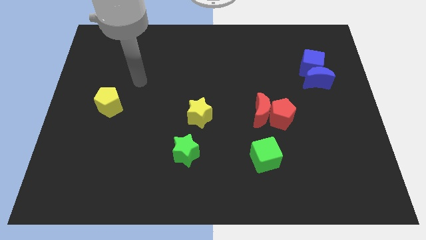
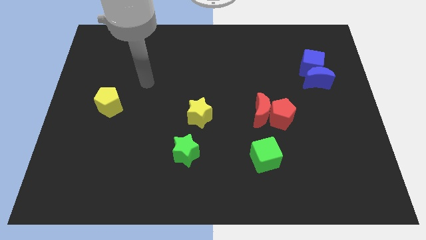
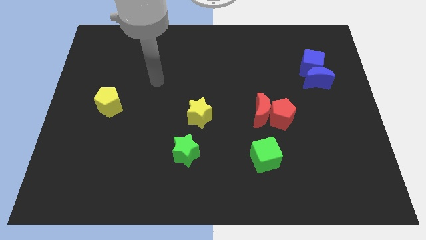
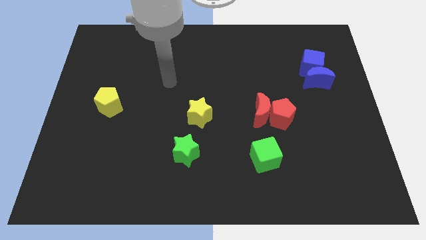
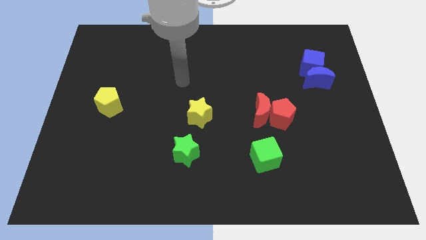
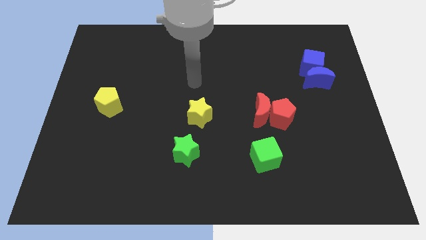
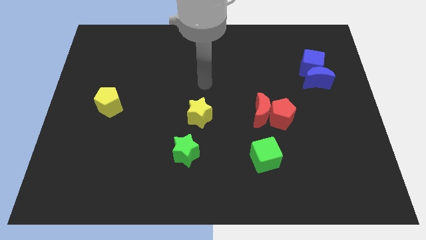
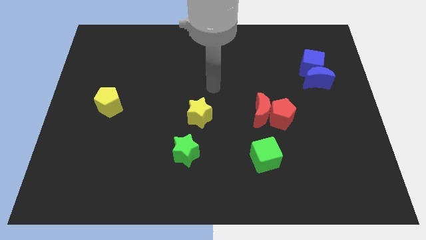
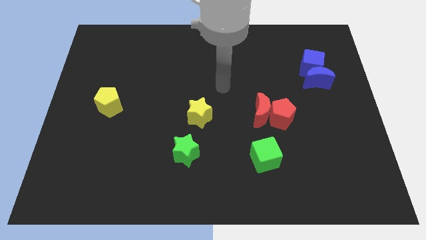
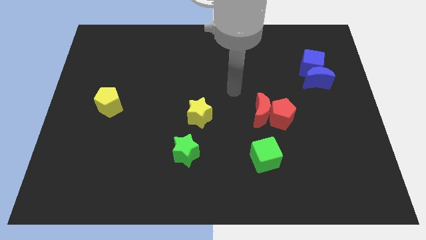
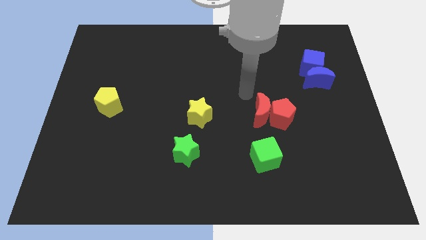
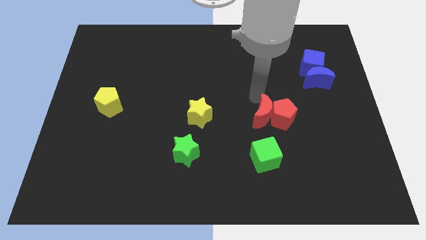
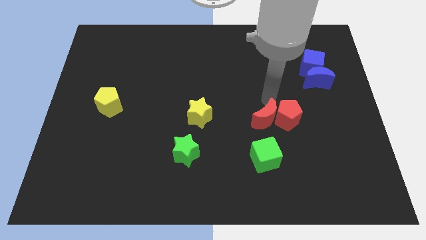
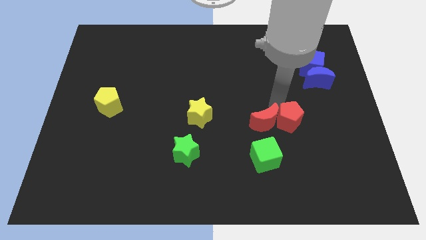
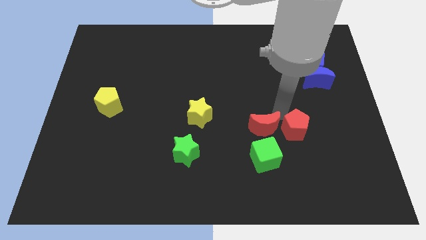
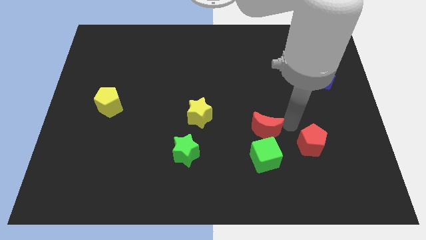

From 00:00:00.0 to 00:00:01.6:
separate the red moon from the red pentagon

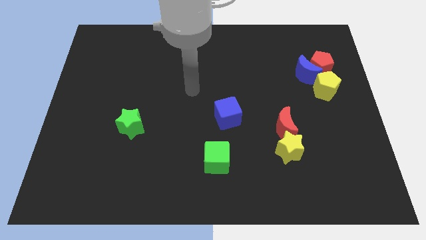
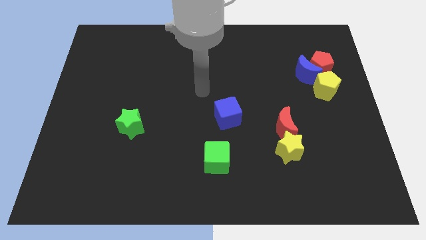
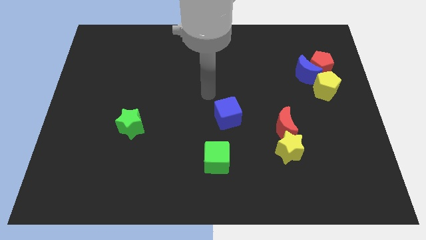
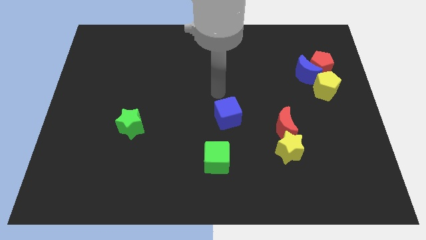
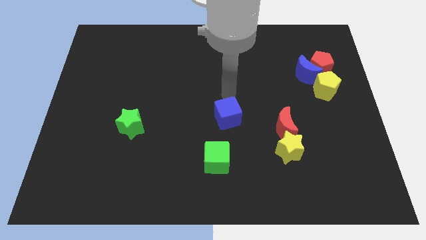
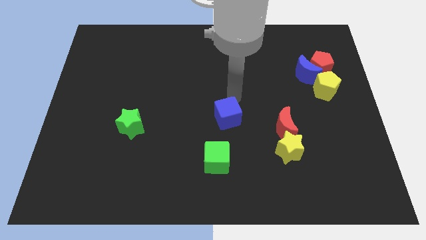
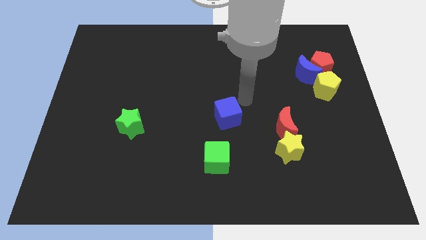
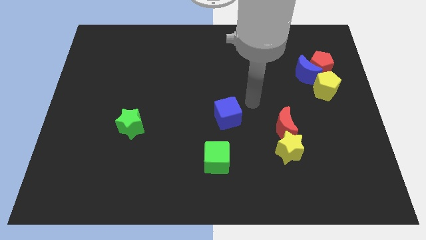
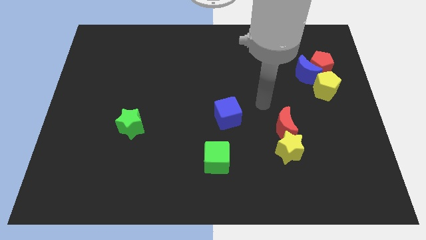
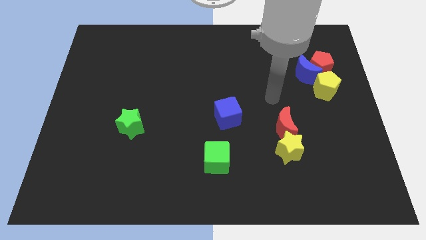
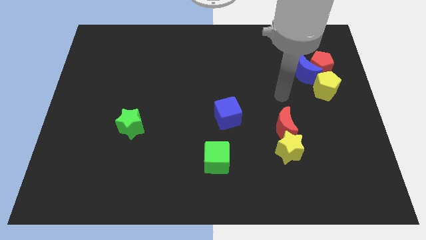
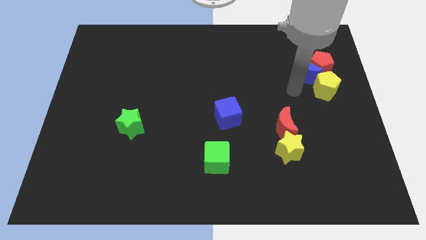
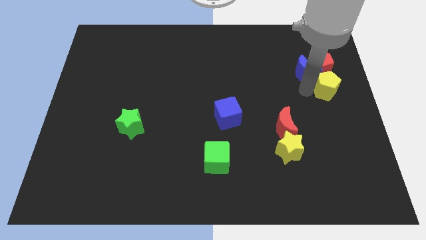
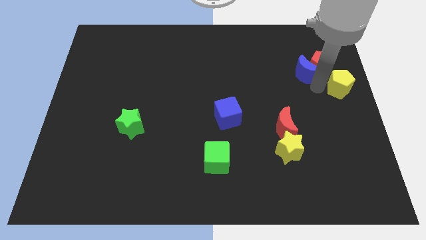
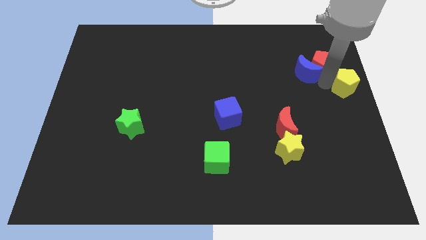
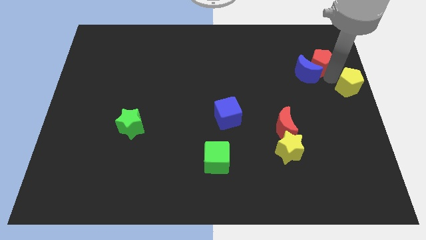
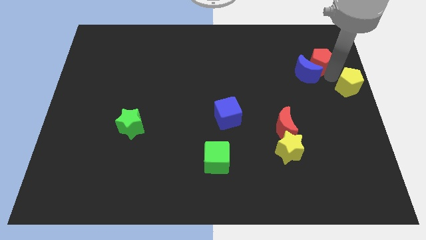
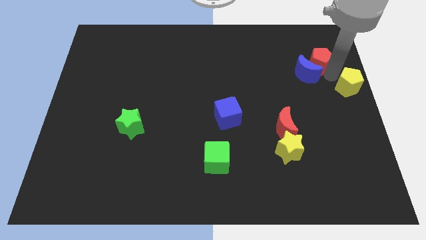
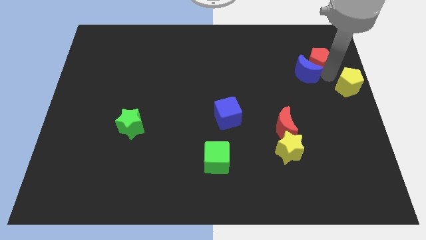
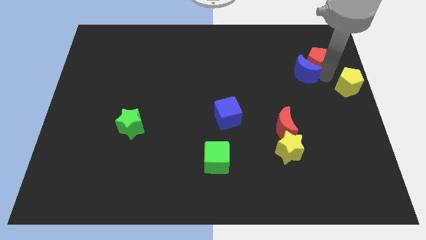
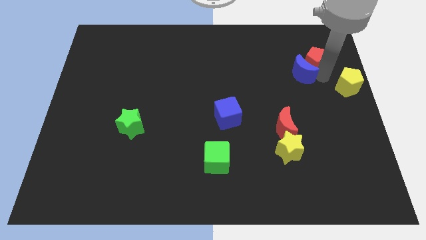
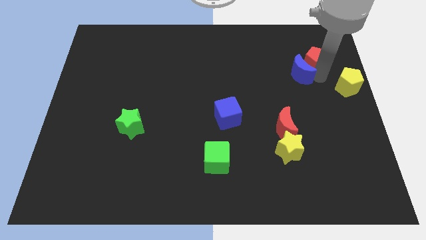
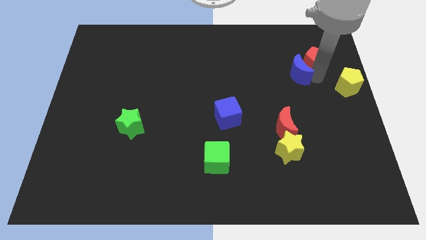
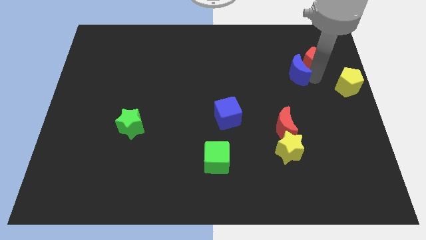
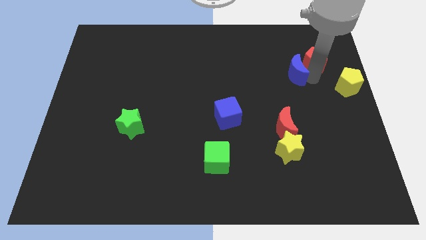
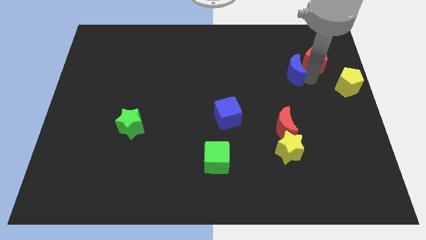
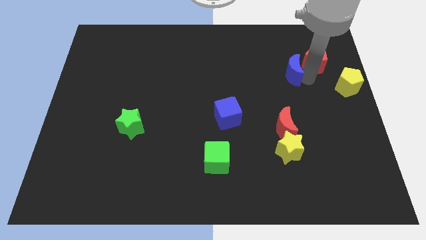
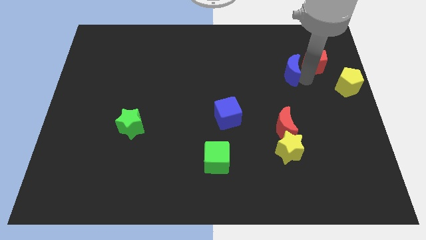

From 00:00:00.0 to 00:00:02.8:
move the blue moon away from the red pentagon and yellow pentagon

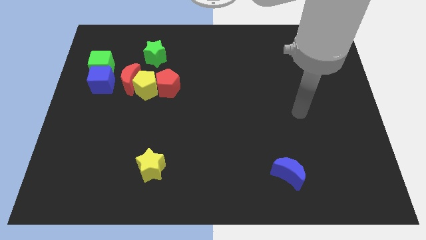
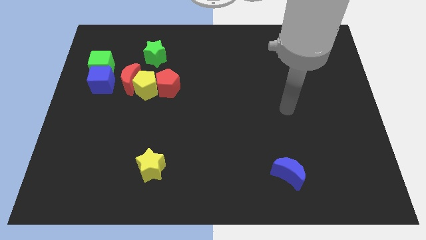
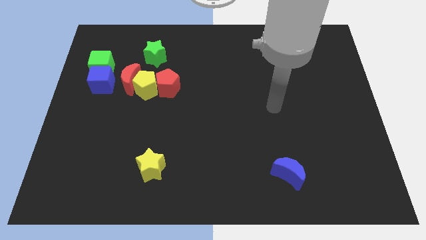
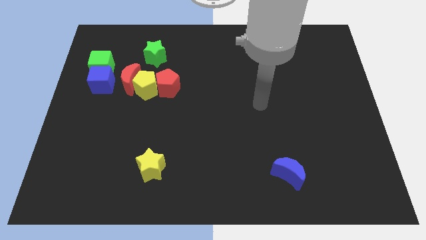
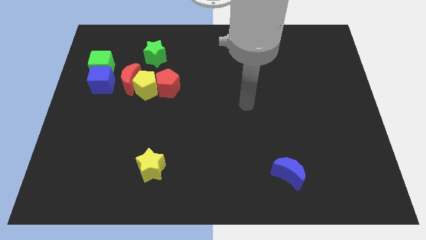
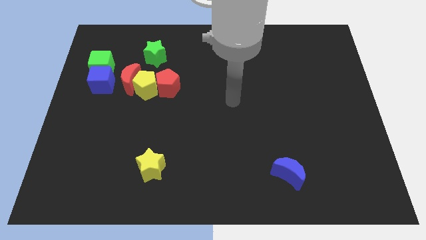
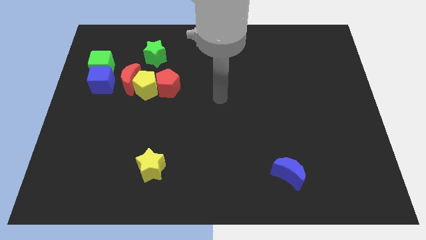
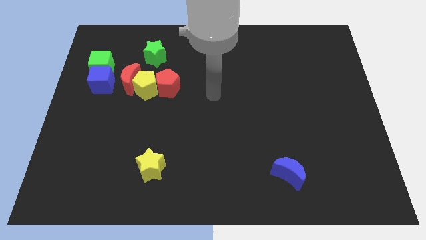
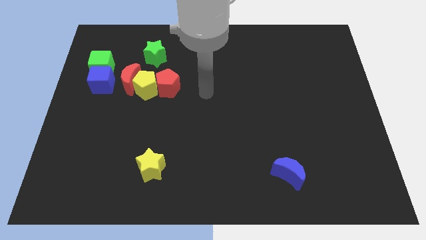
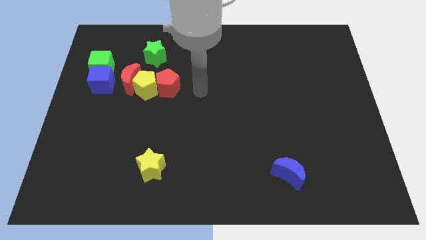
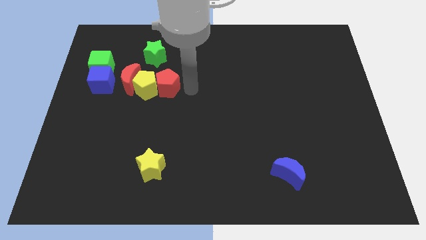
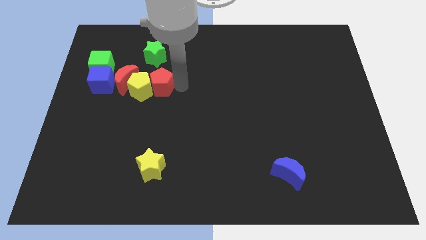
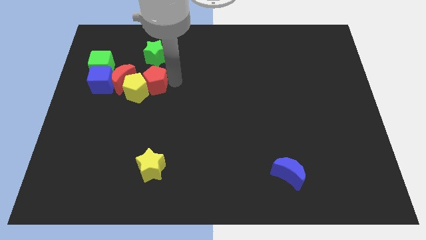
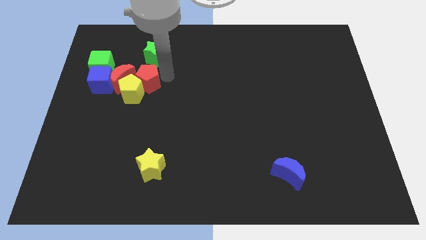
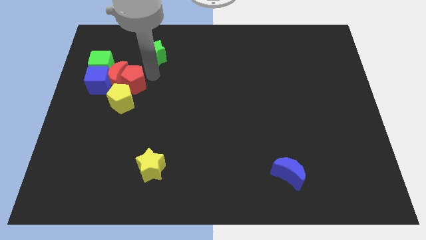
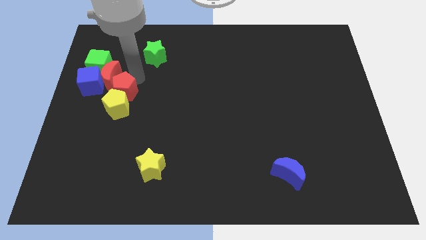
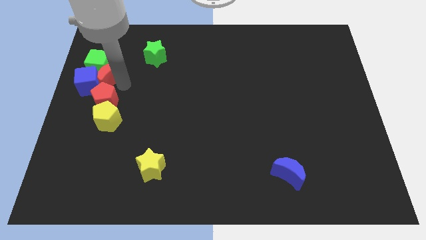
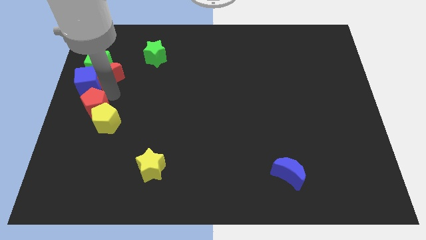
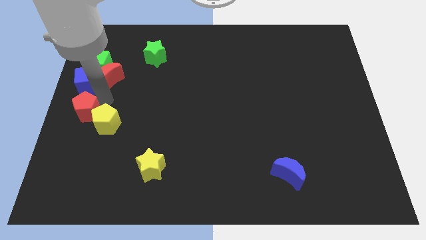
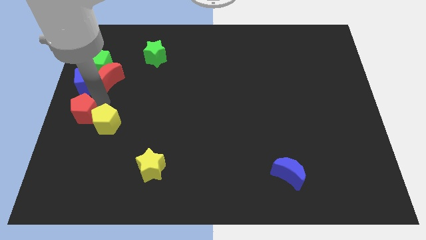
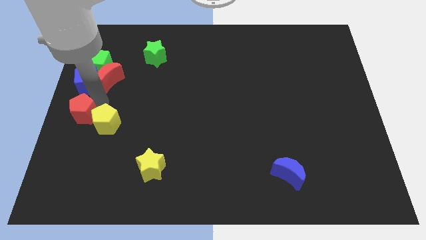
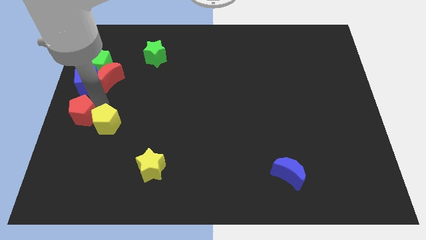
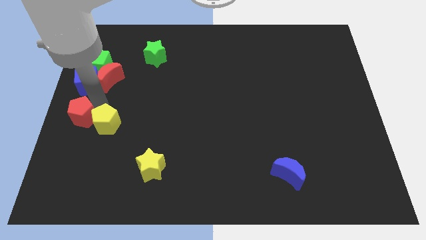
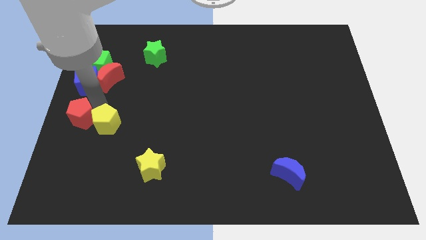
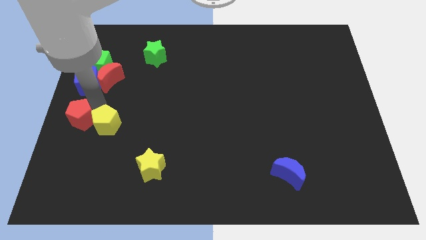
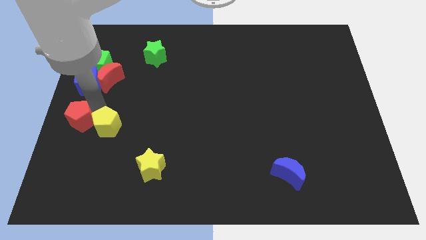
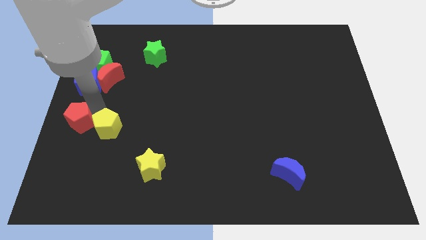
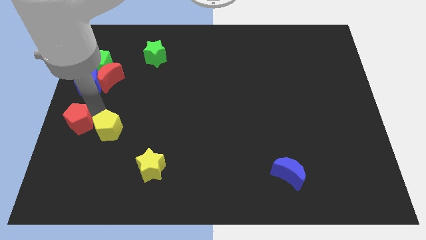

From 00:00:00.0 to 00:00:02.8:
pull the yellow pentagon apart from the red moon and red pentagon

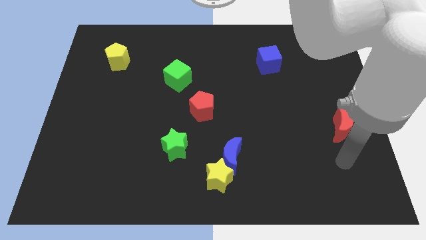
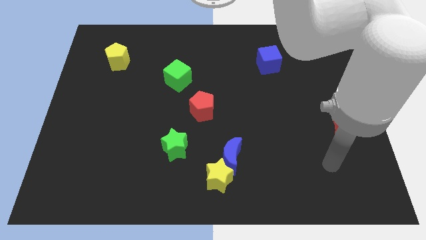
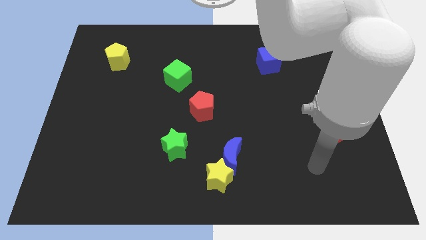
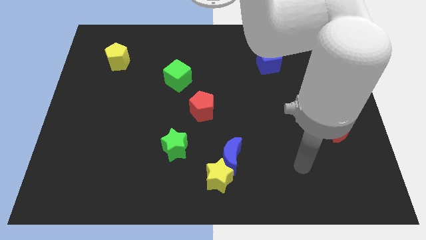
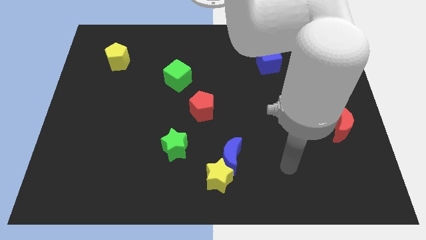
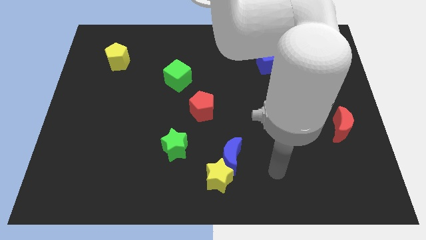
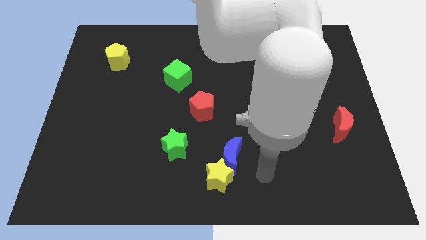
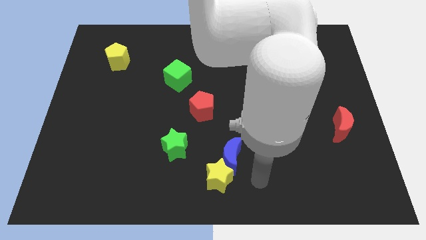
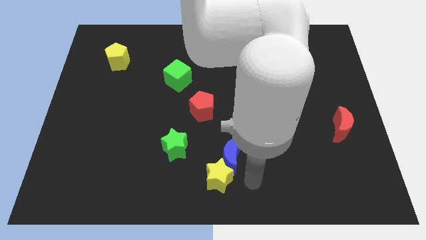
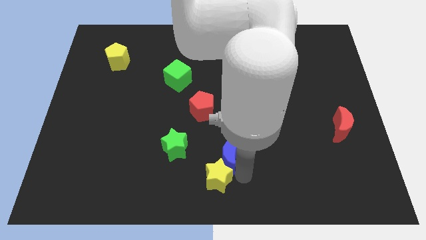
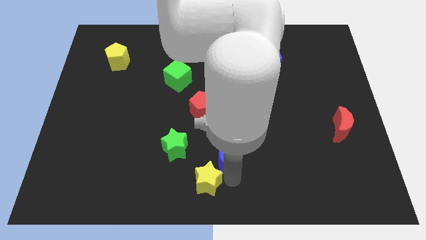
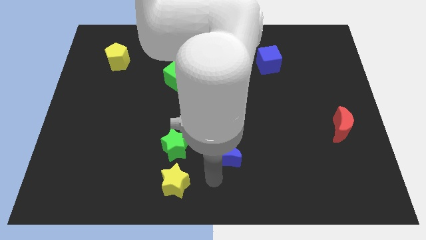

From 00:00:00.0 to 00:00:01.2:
separate the blue moon from the yellow star

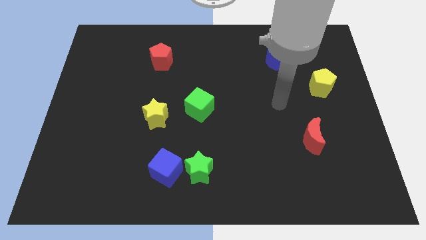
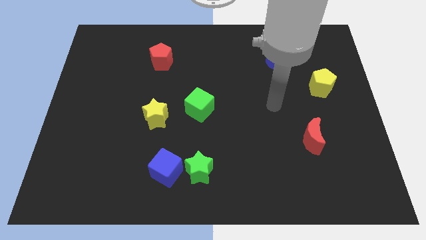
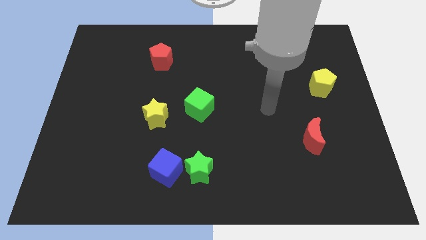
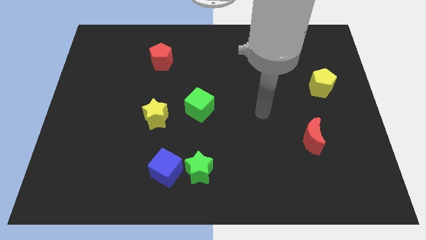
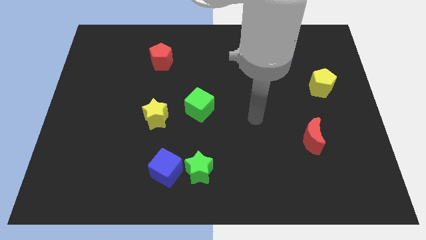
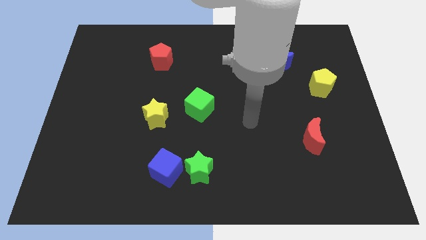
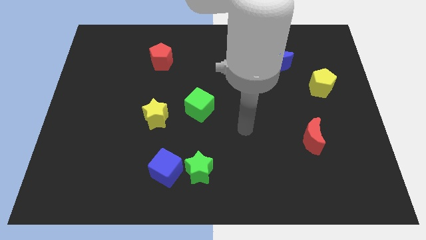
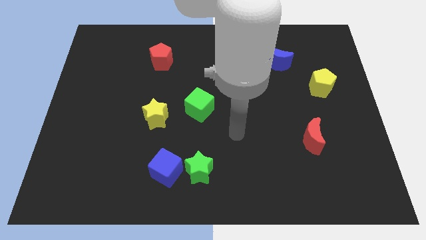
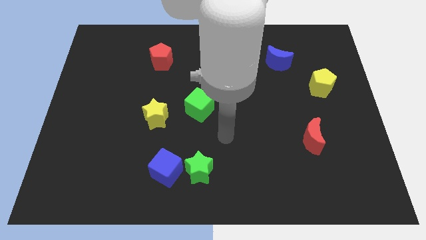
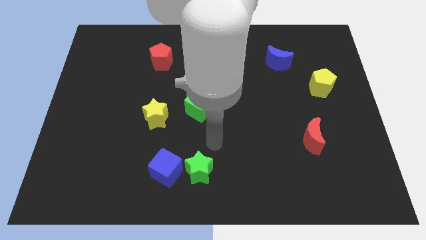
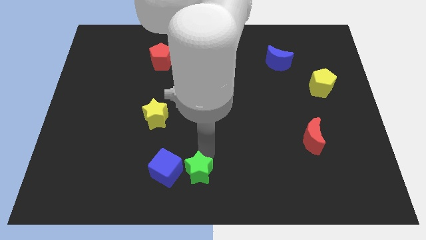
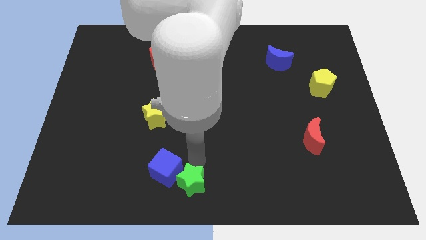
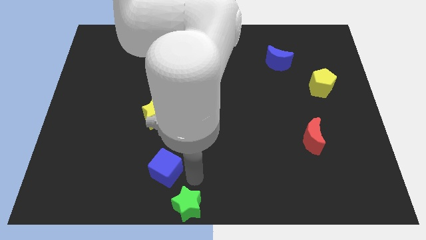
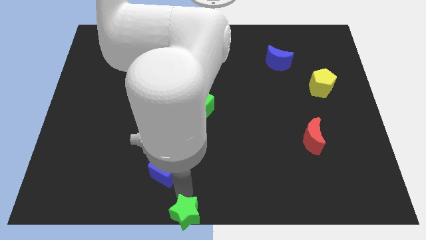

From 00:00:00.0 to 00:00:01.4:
separate the blue cube from the green star
